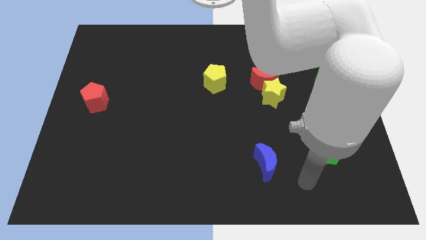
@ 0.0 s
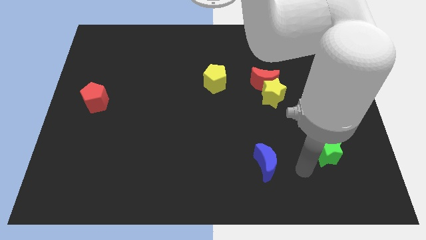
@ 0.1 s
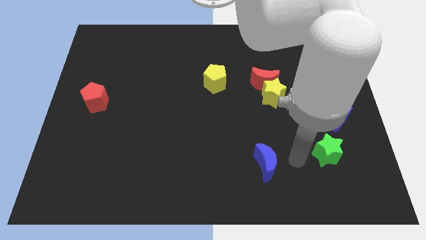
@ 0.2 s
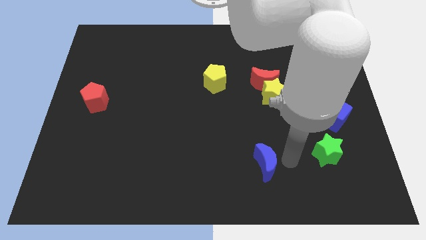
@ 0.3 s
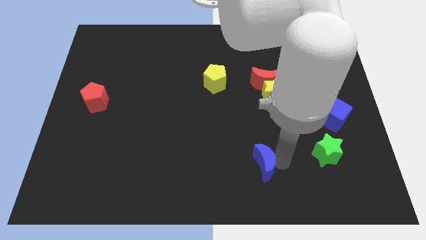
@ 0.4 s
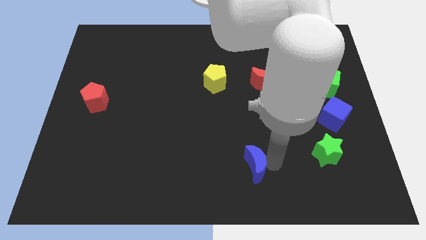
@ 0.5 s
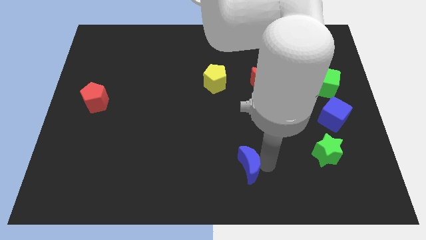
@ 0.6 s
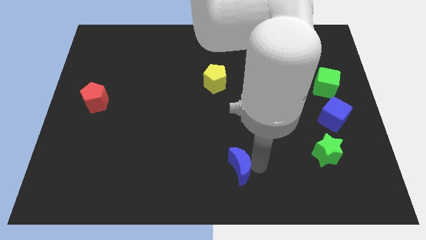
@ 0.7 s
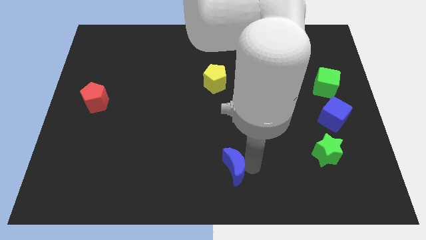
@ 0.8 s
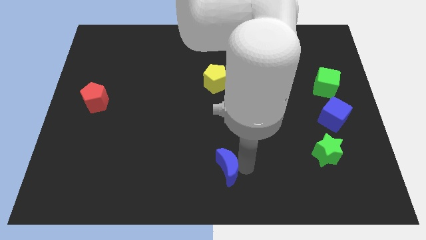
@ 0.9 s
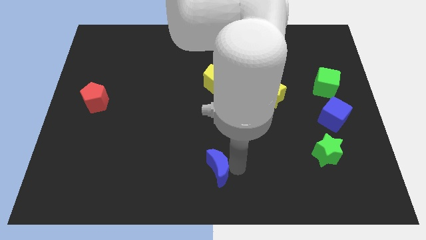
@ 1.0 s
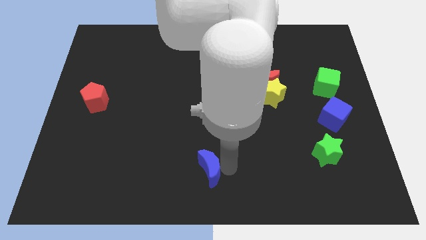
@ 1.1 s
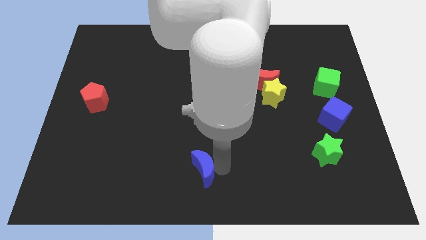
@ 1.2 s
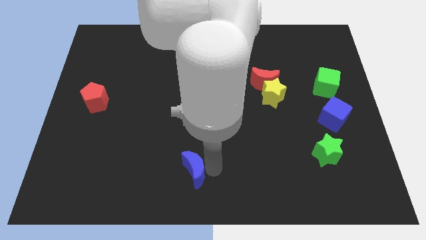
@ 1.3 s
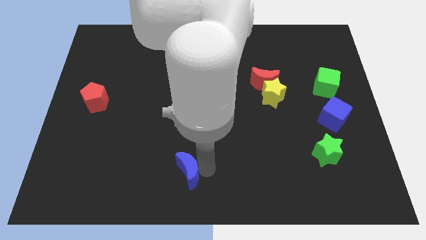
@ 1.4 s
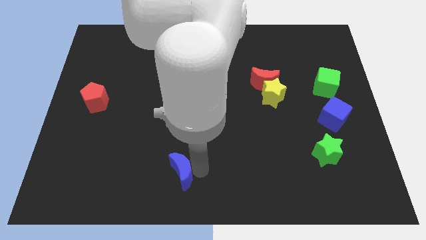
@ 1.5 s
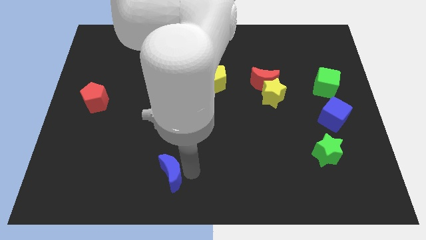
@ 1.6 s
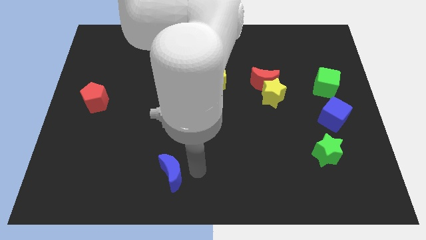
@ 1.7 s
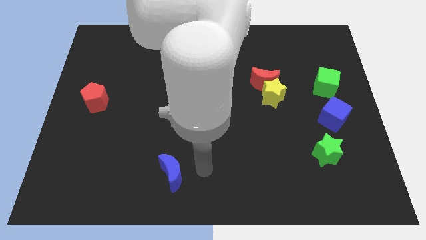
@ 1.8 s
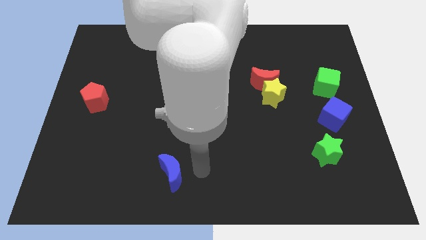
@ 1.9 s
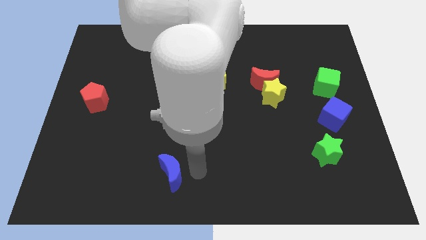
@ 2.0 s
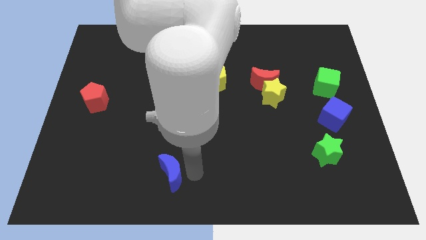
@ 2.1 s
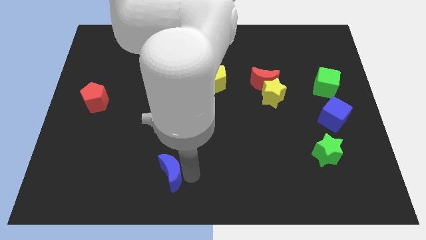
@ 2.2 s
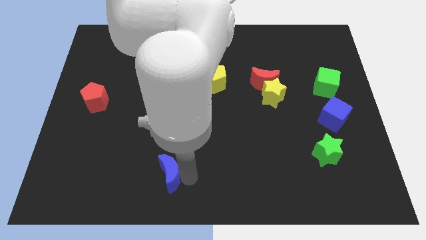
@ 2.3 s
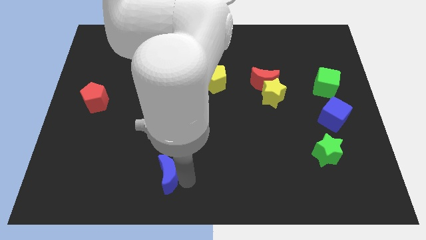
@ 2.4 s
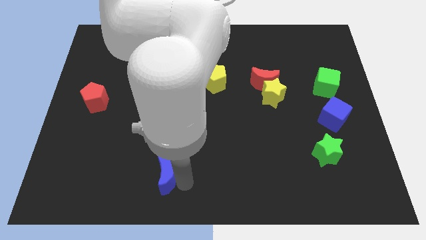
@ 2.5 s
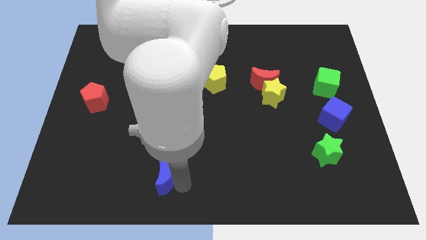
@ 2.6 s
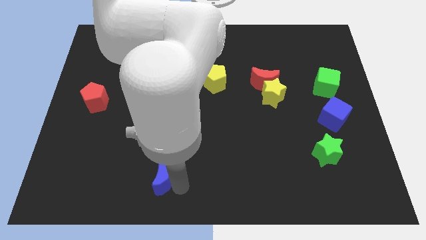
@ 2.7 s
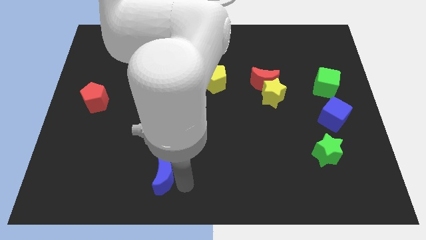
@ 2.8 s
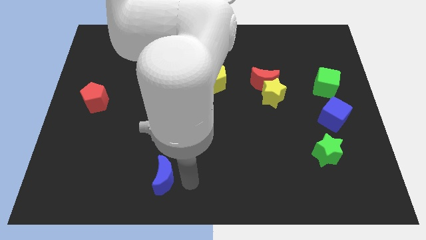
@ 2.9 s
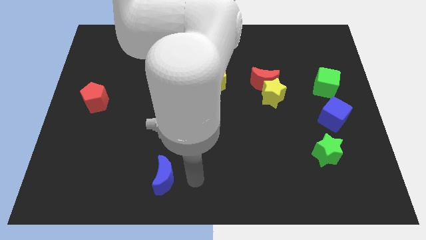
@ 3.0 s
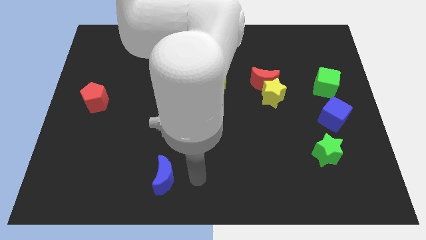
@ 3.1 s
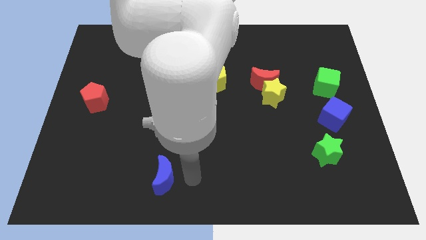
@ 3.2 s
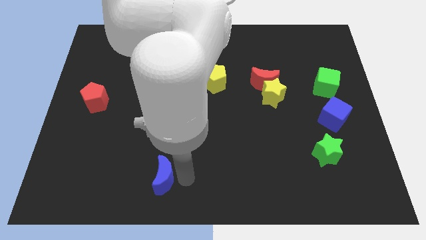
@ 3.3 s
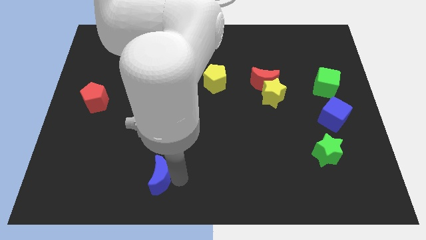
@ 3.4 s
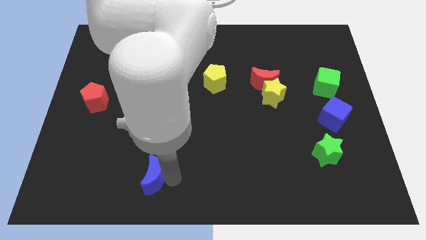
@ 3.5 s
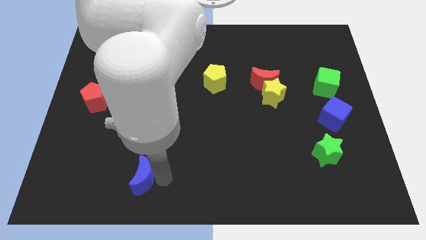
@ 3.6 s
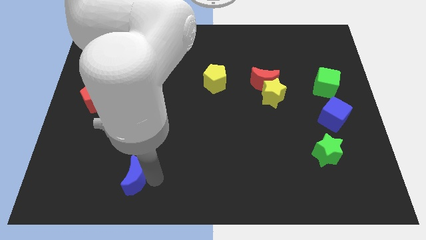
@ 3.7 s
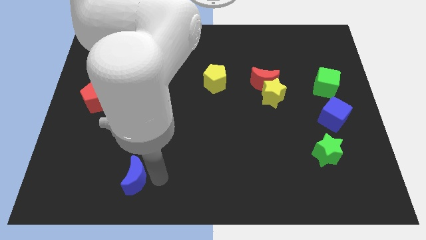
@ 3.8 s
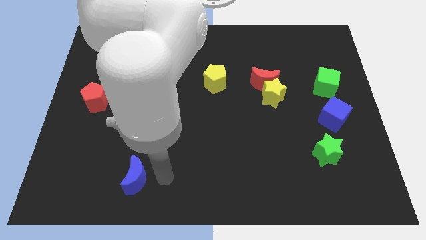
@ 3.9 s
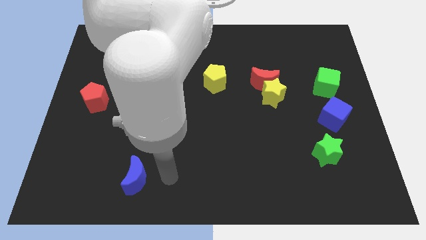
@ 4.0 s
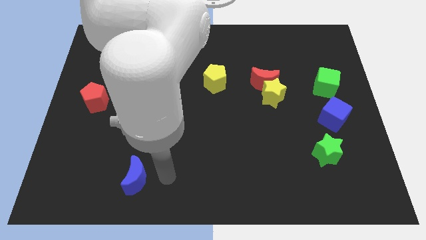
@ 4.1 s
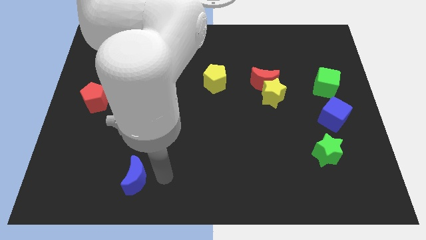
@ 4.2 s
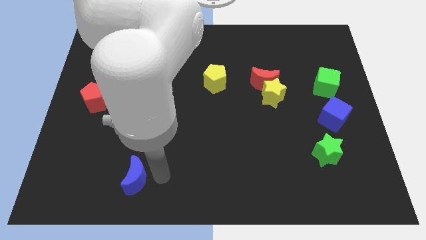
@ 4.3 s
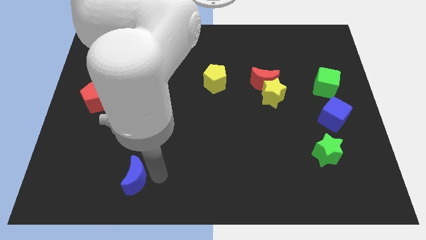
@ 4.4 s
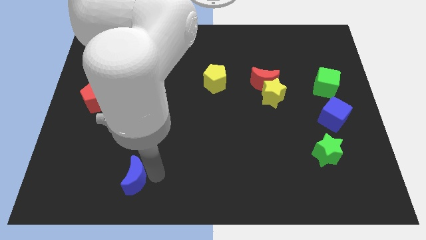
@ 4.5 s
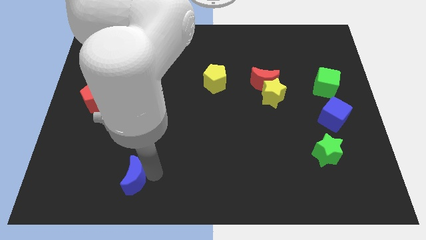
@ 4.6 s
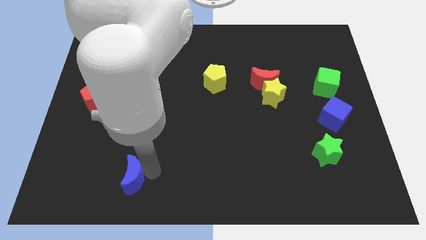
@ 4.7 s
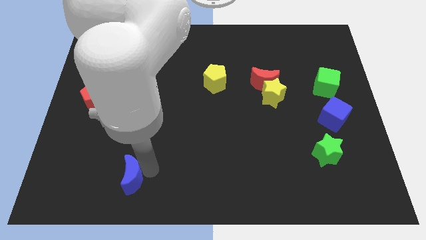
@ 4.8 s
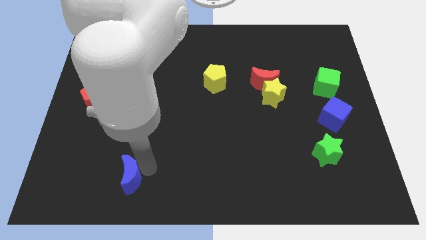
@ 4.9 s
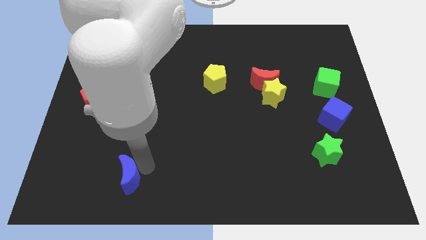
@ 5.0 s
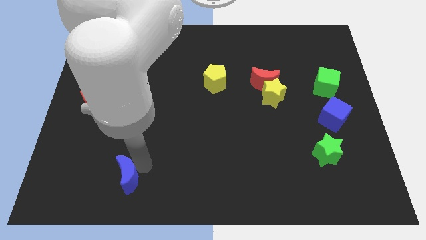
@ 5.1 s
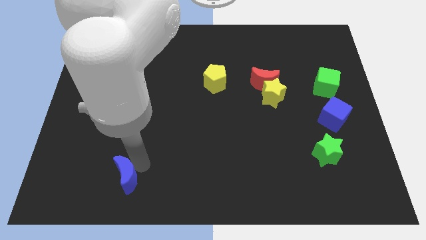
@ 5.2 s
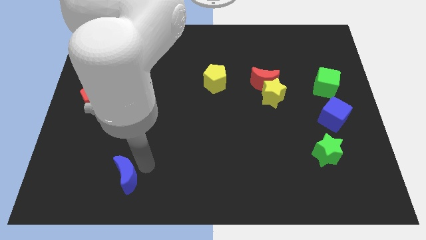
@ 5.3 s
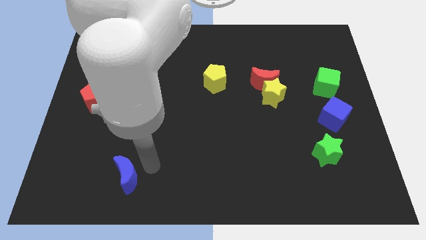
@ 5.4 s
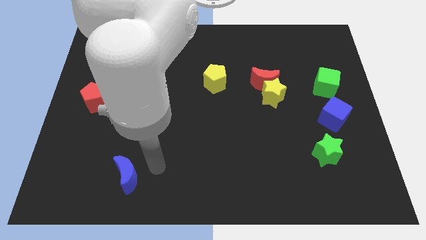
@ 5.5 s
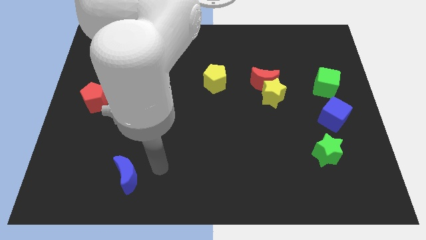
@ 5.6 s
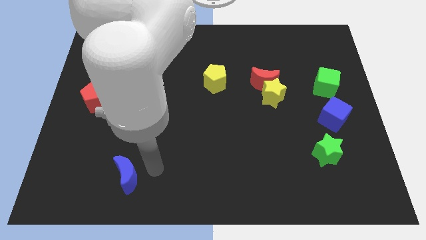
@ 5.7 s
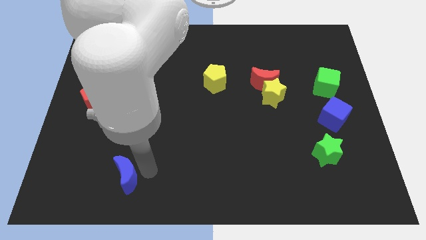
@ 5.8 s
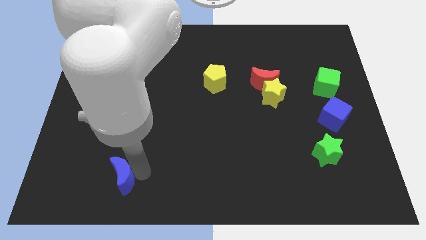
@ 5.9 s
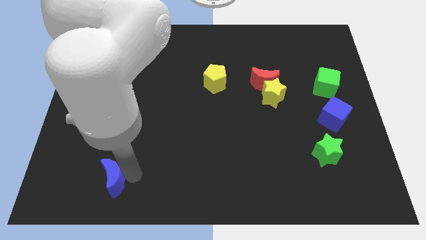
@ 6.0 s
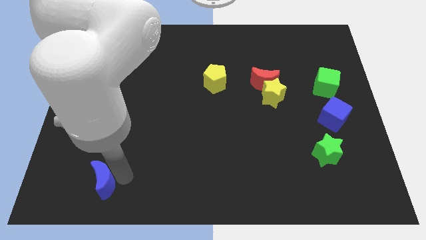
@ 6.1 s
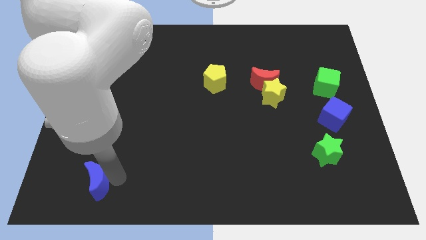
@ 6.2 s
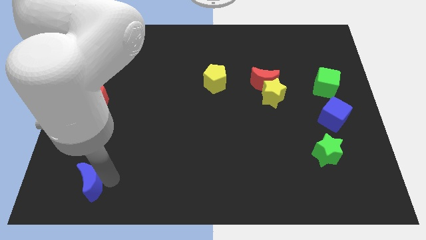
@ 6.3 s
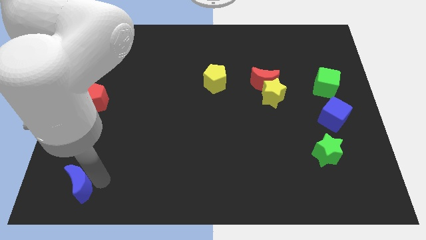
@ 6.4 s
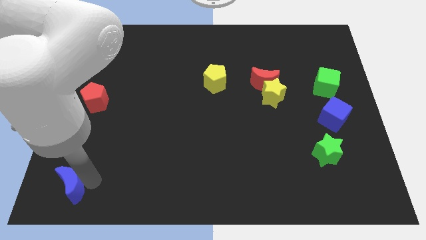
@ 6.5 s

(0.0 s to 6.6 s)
push the blue moon to the lower left corner
